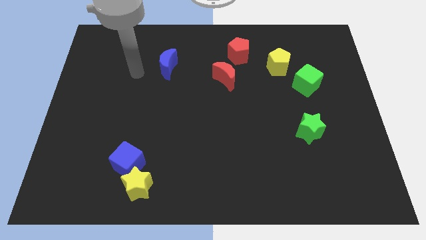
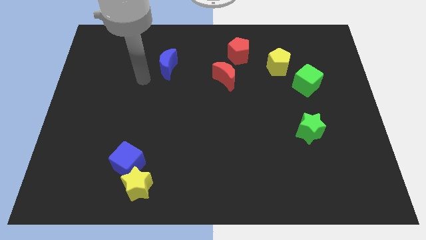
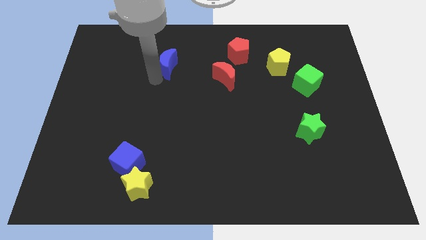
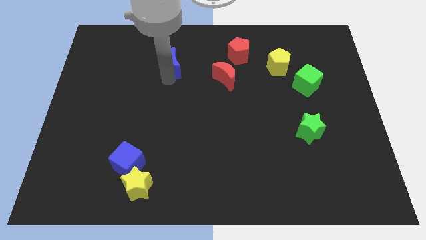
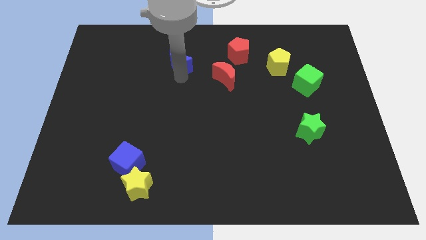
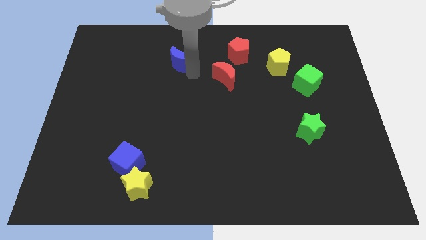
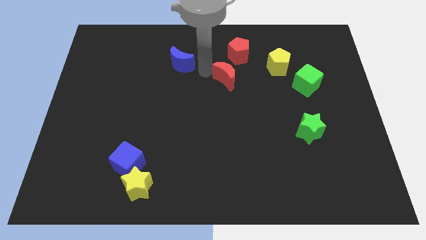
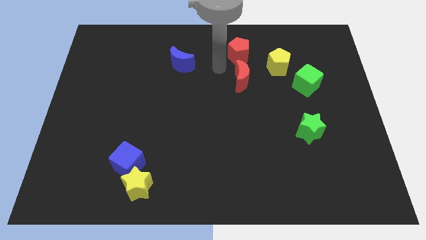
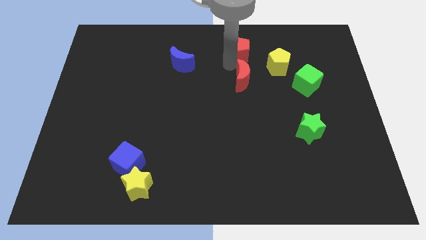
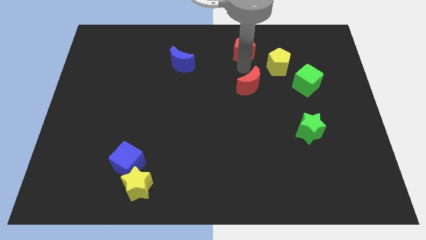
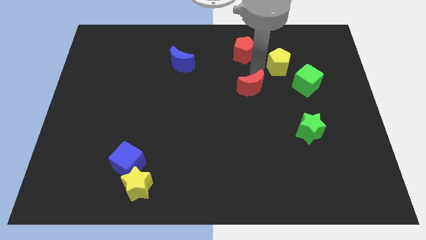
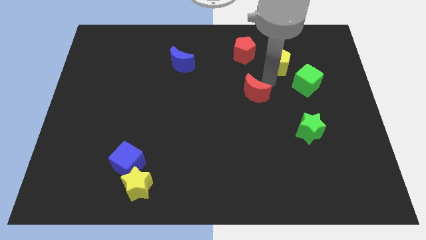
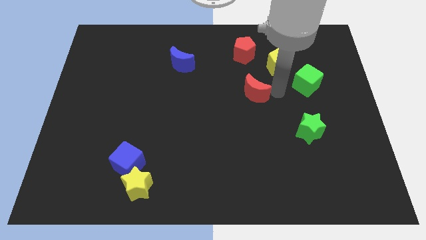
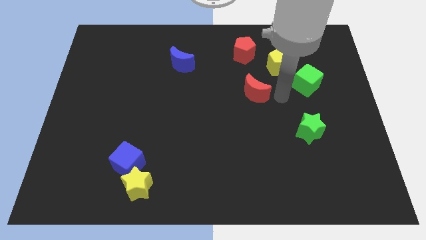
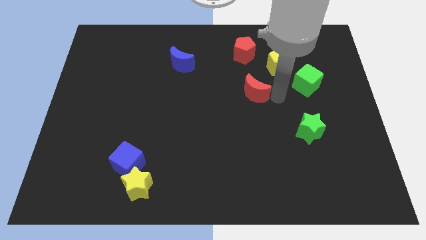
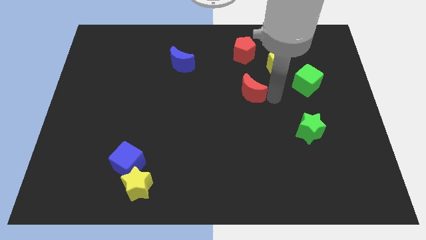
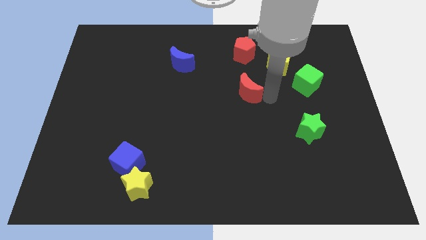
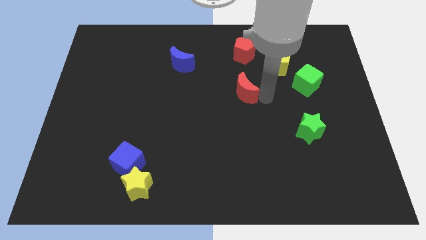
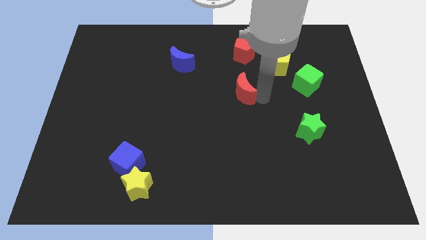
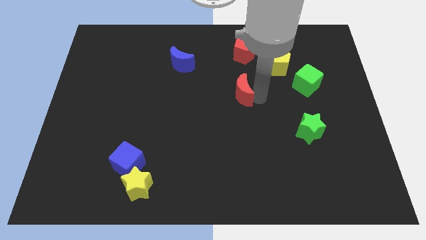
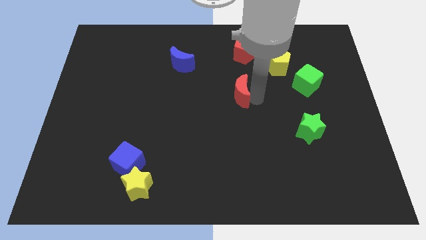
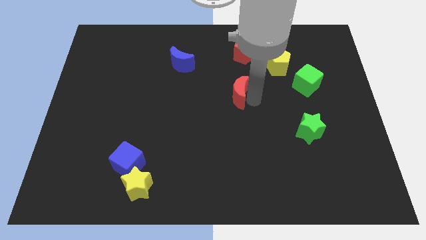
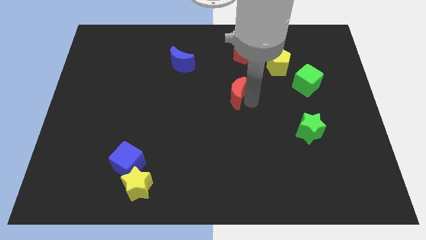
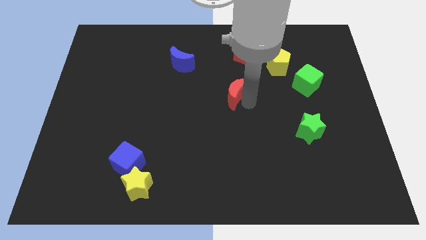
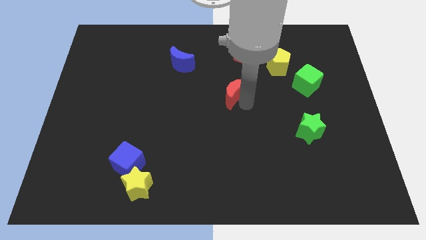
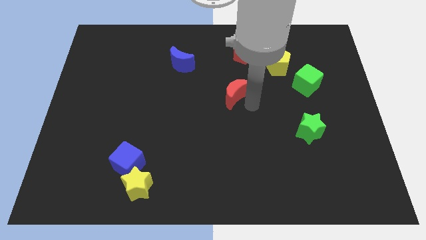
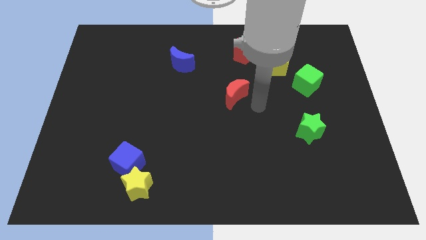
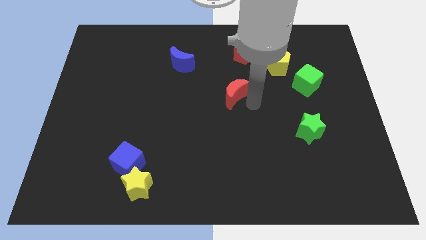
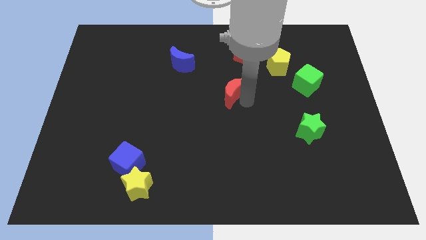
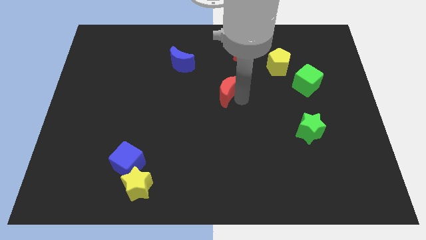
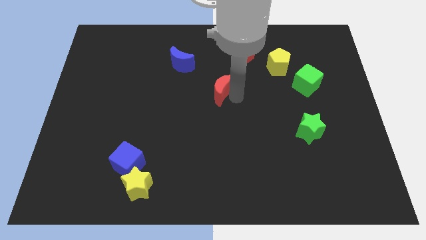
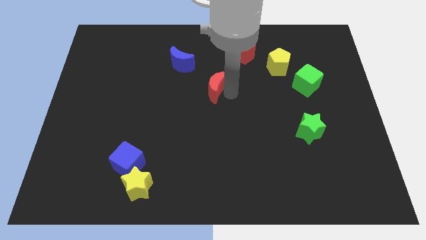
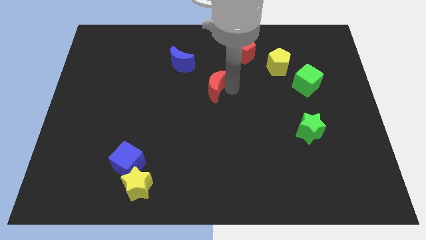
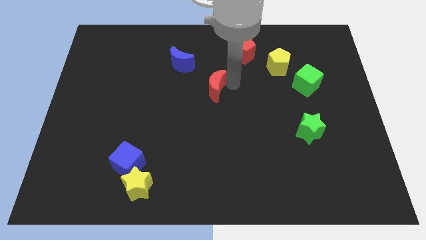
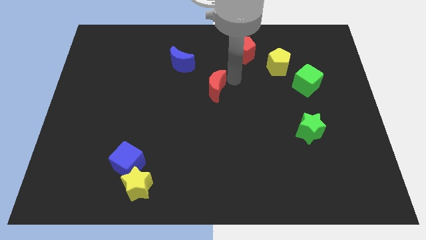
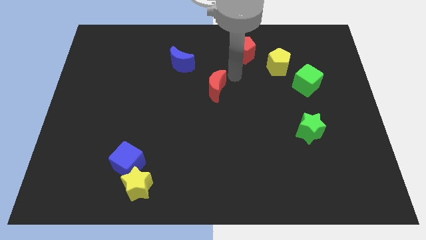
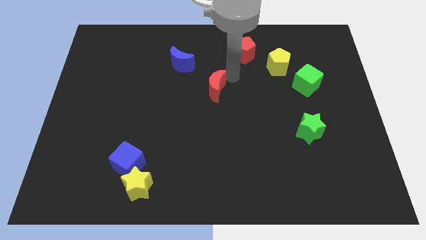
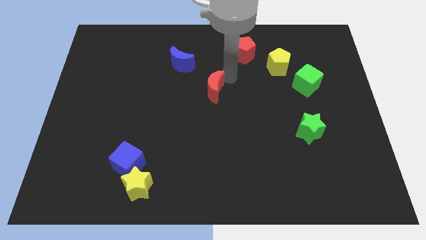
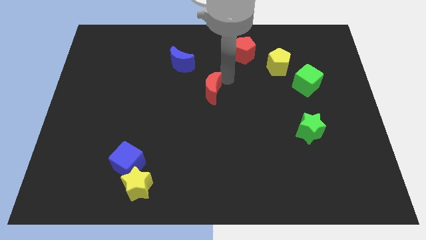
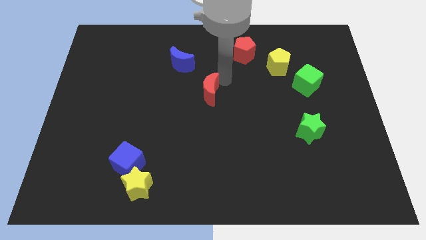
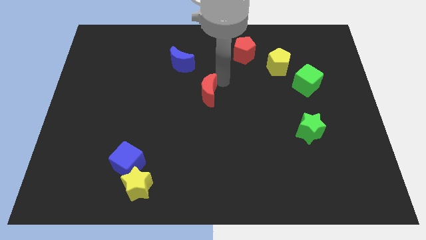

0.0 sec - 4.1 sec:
slightly push the red moon diagonally down and to the left

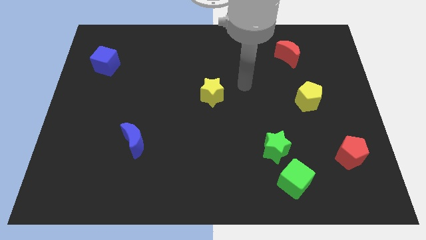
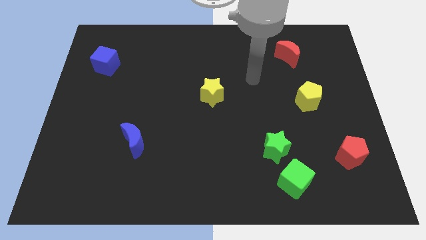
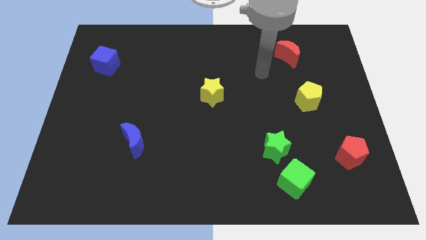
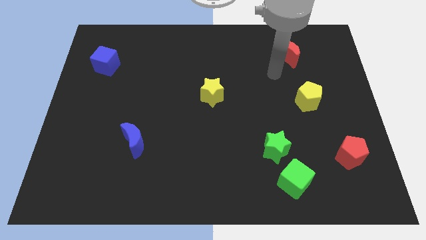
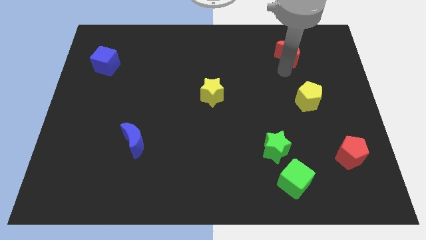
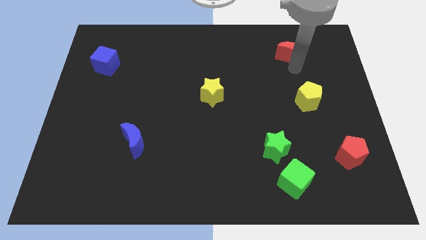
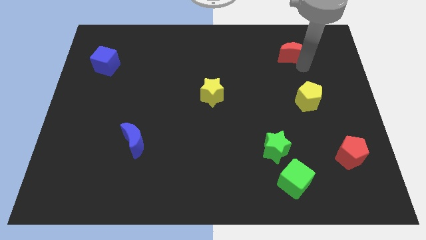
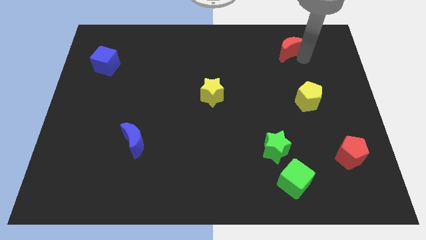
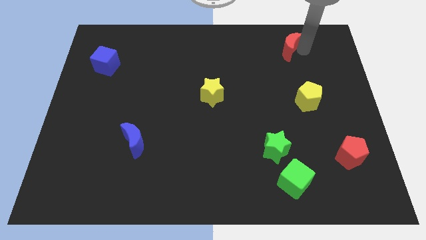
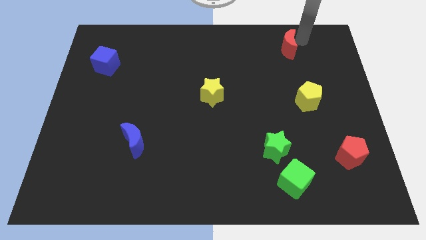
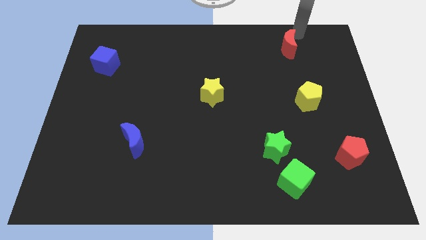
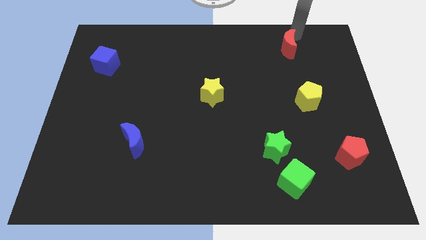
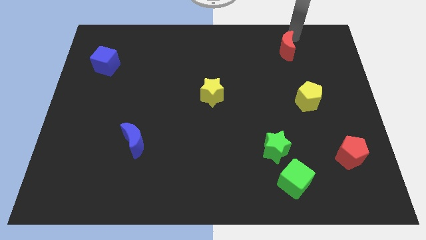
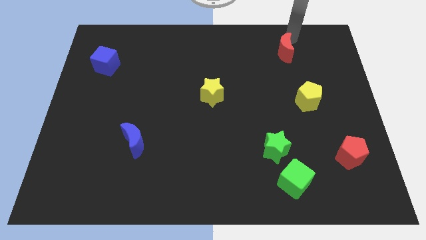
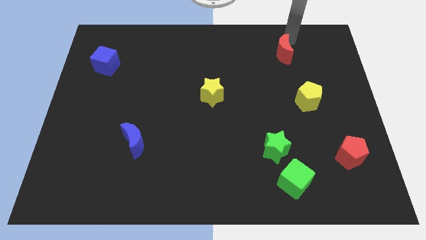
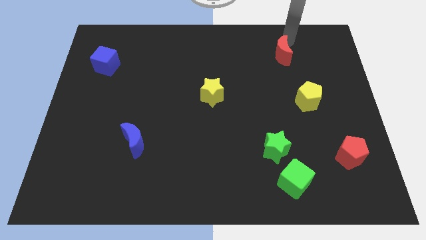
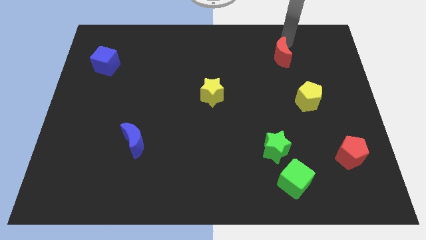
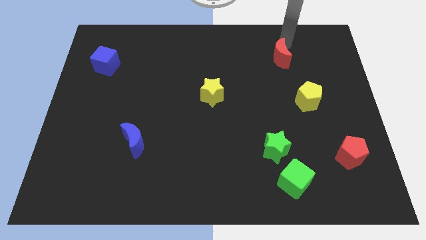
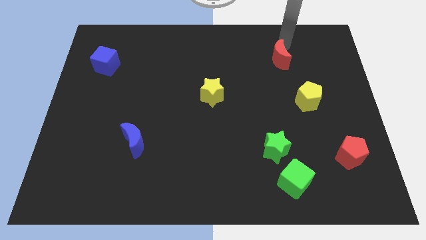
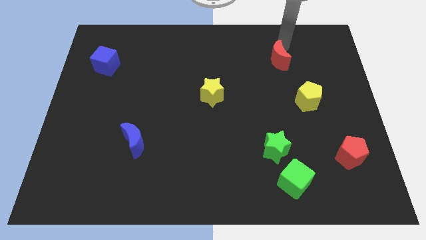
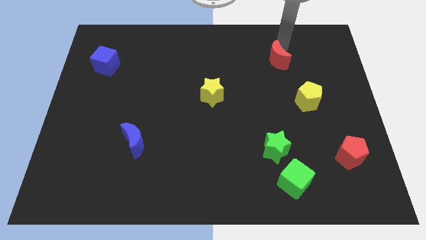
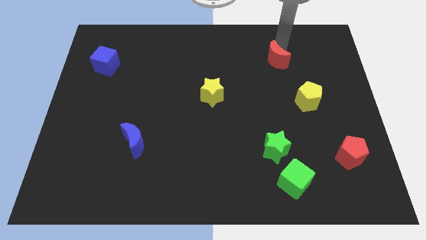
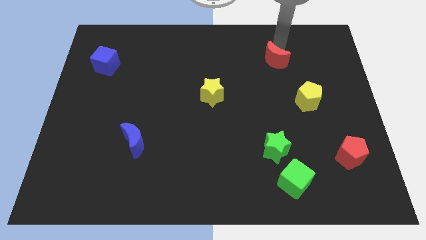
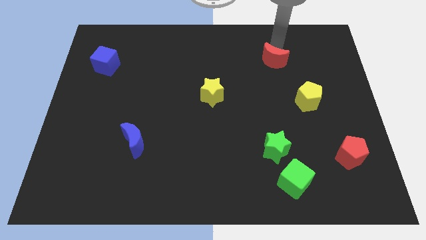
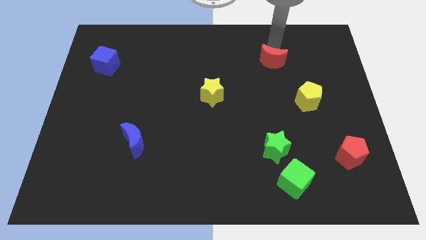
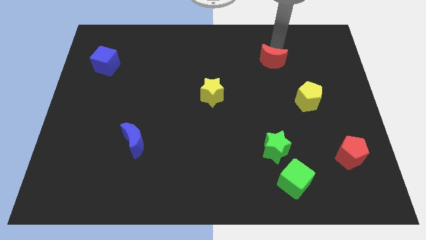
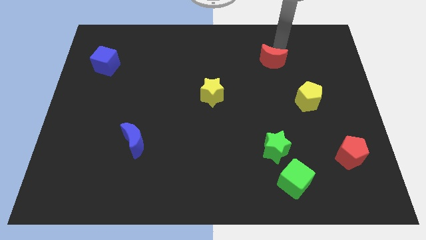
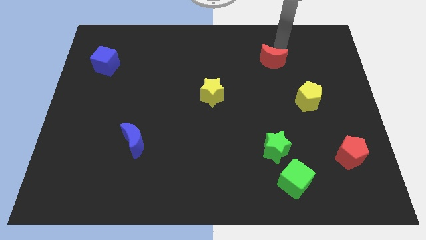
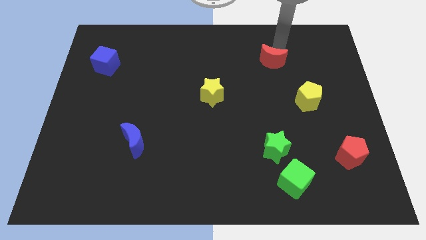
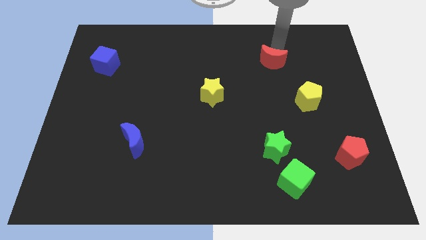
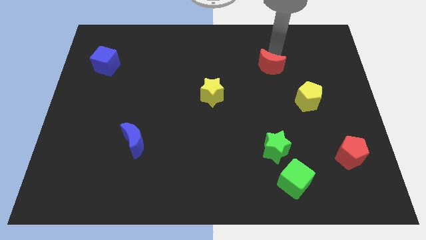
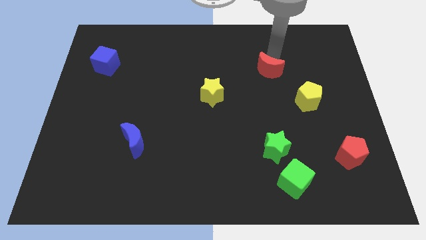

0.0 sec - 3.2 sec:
slide the red moon downwards and then to the left a bit

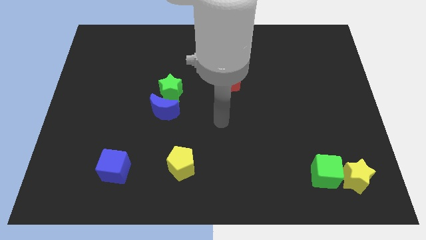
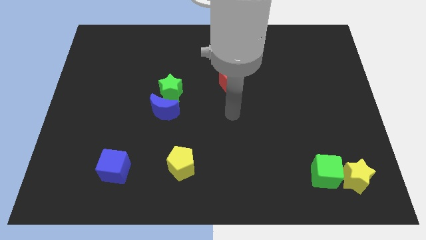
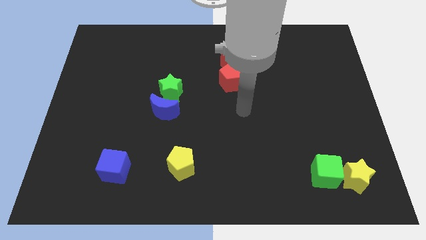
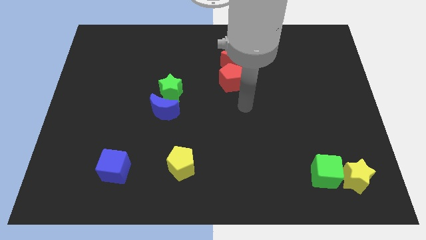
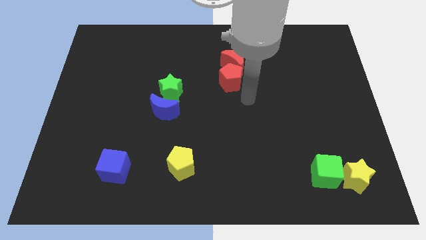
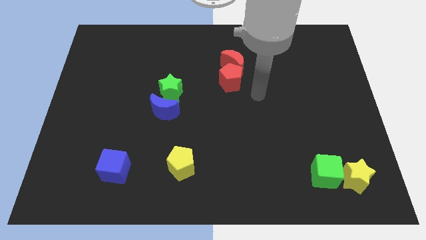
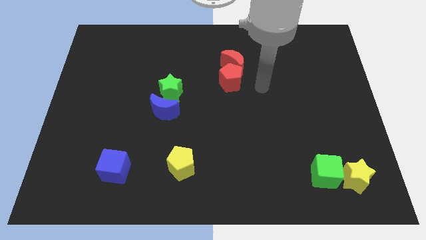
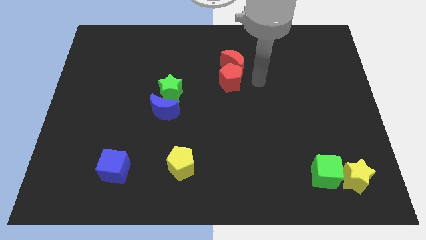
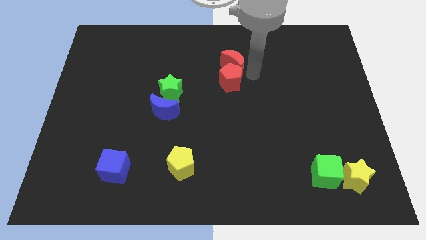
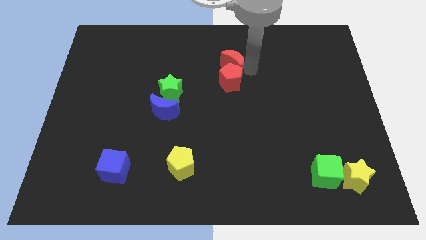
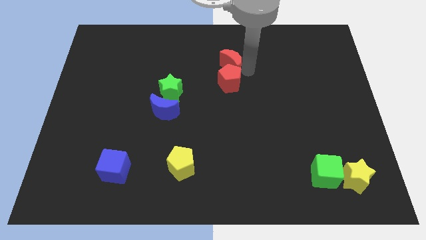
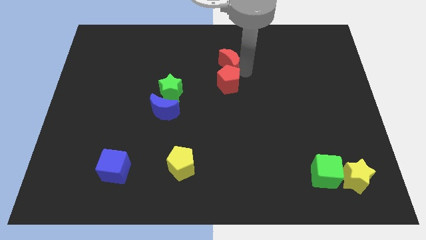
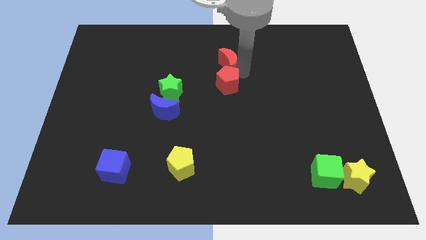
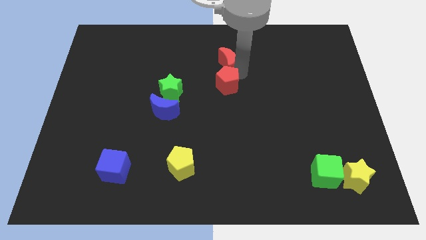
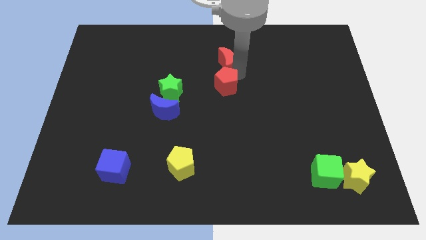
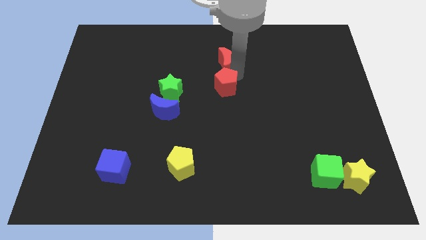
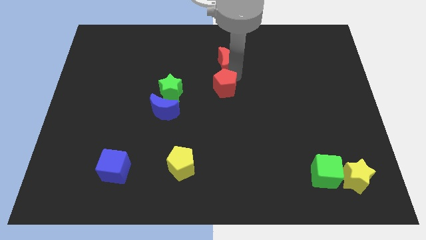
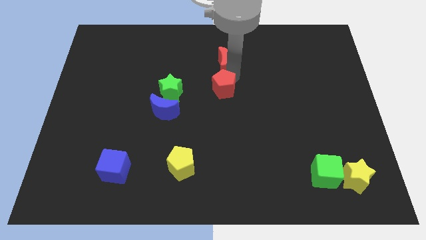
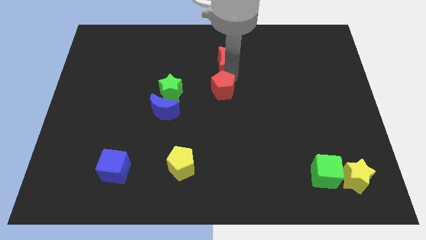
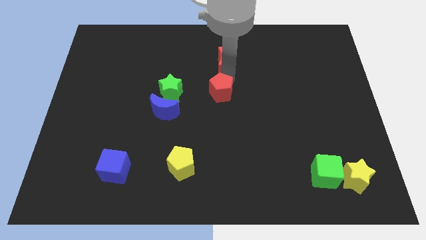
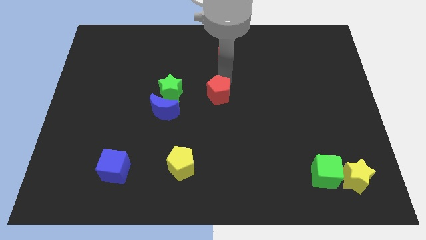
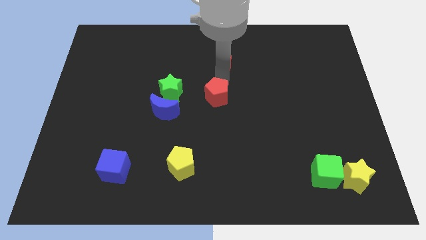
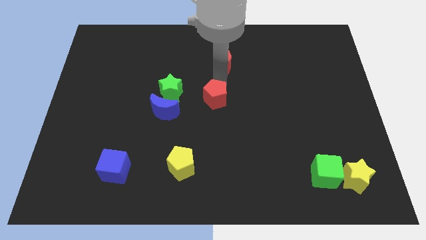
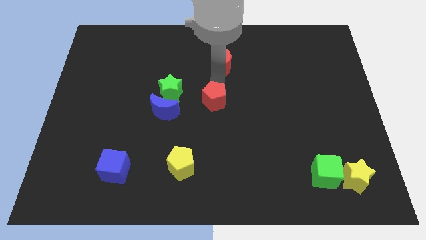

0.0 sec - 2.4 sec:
move the red pentagon a little bit down and left diagonally
